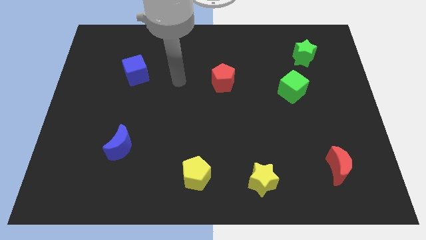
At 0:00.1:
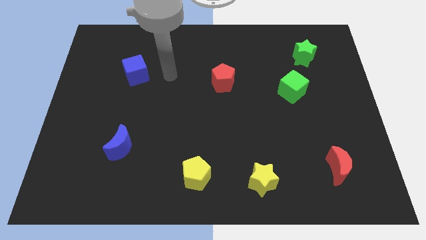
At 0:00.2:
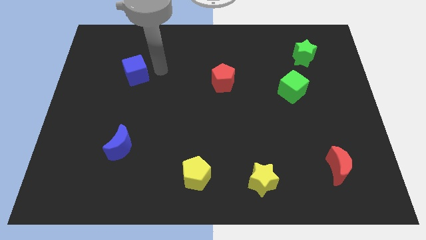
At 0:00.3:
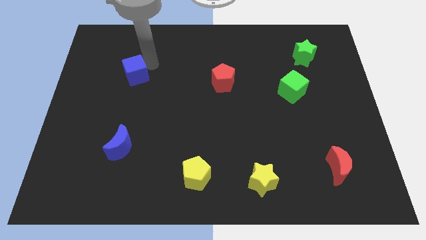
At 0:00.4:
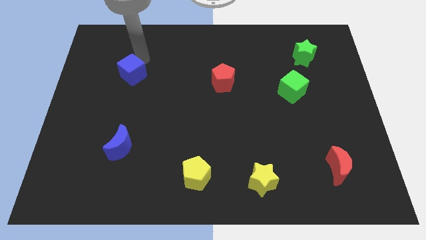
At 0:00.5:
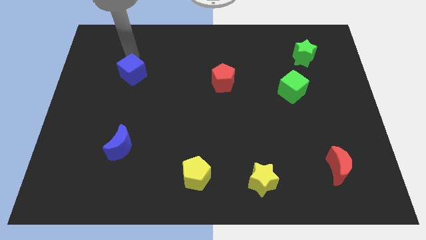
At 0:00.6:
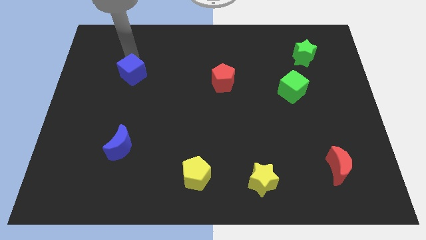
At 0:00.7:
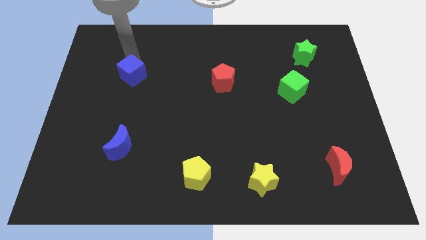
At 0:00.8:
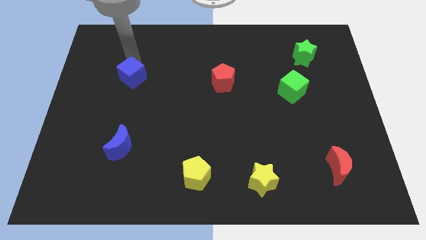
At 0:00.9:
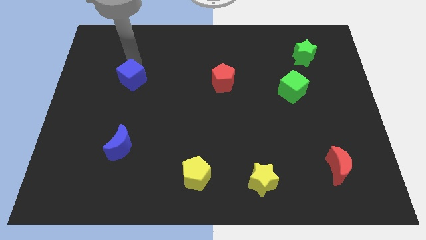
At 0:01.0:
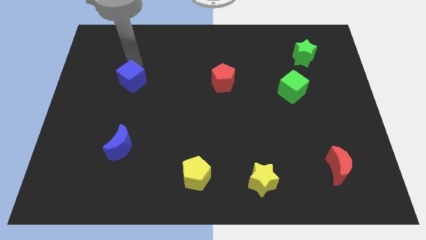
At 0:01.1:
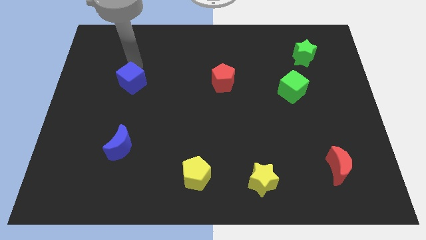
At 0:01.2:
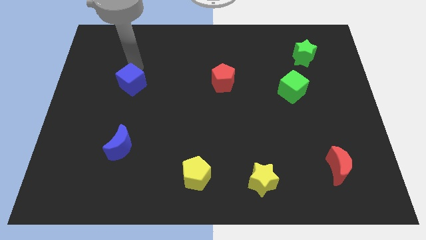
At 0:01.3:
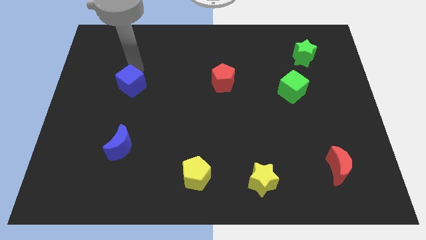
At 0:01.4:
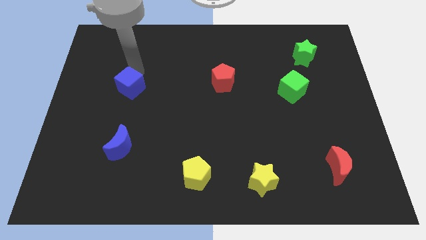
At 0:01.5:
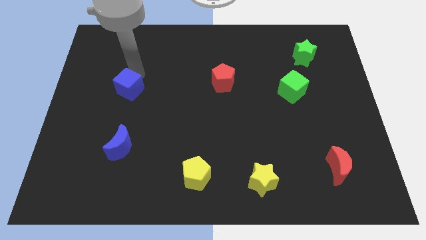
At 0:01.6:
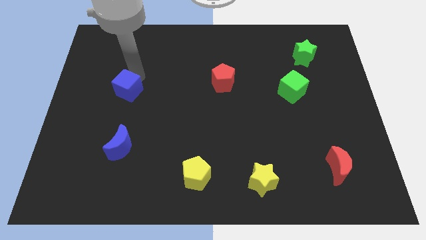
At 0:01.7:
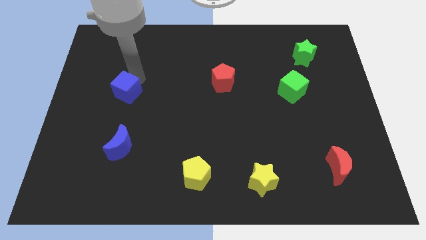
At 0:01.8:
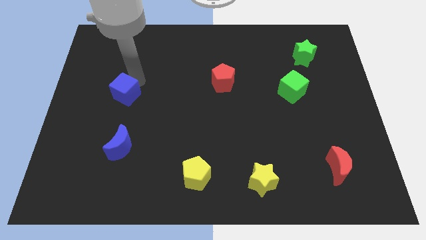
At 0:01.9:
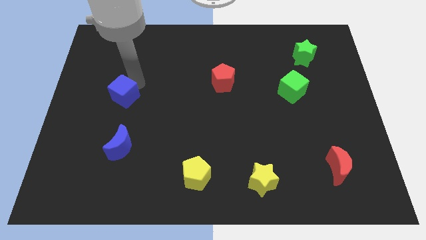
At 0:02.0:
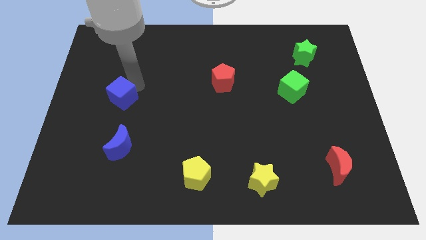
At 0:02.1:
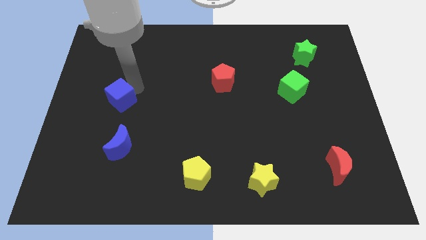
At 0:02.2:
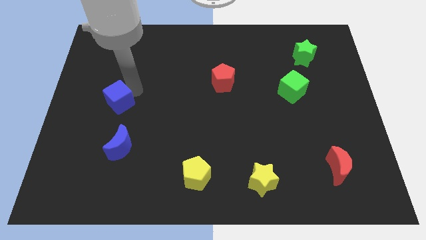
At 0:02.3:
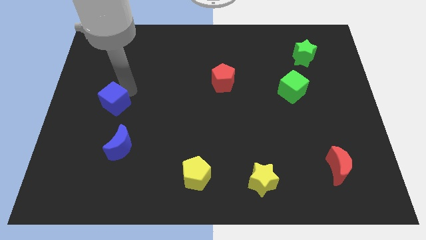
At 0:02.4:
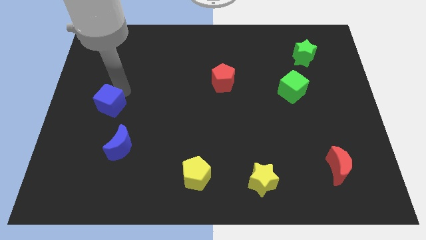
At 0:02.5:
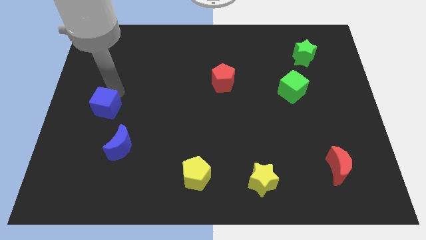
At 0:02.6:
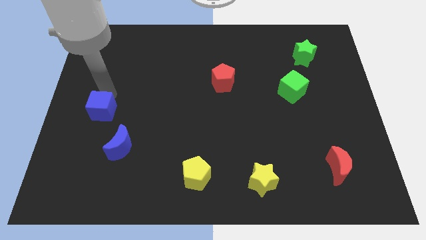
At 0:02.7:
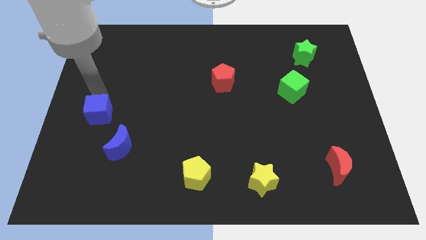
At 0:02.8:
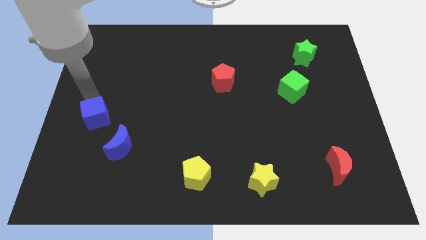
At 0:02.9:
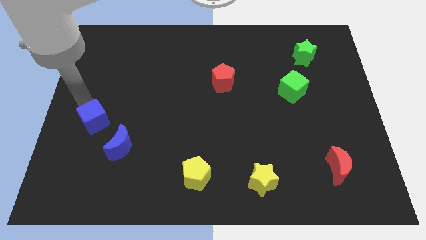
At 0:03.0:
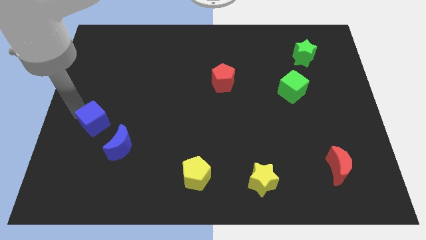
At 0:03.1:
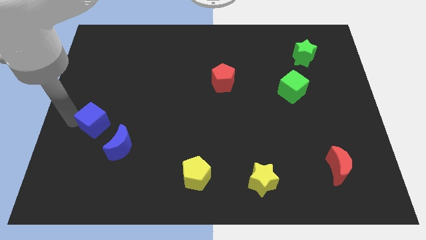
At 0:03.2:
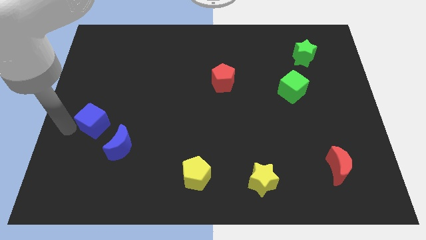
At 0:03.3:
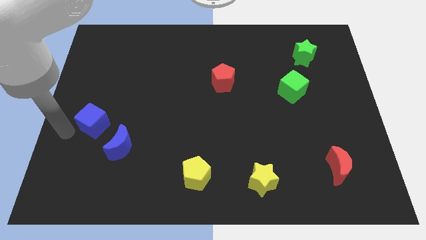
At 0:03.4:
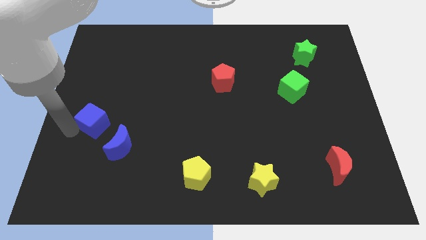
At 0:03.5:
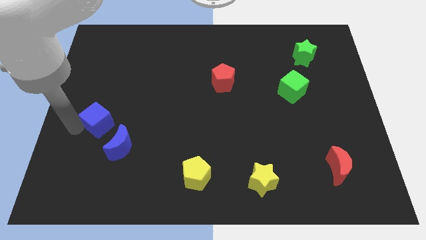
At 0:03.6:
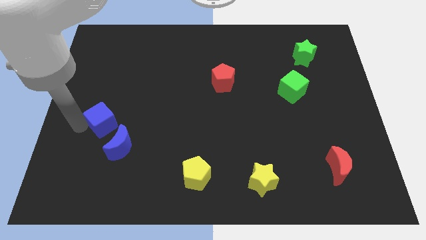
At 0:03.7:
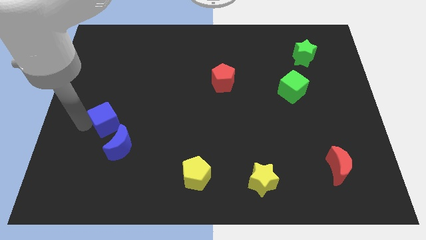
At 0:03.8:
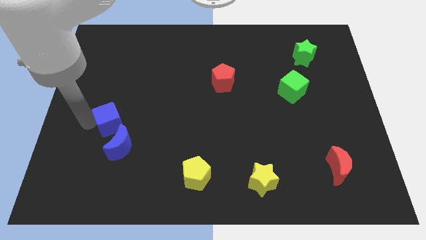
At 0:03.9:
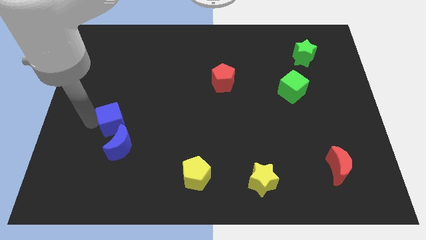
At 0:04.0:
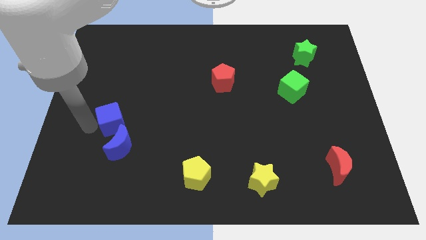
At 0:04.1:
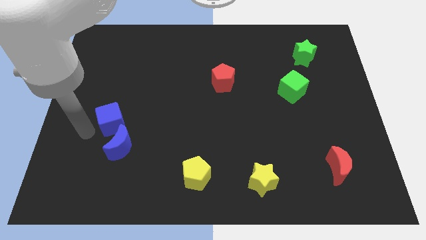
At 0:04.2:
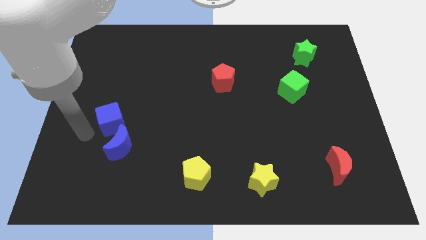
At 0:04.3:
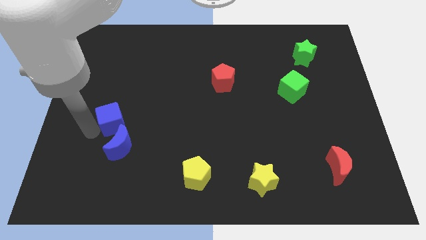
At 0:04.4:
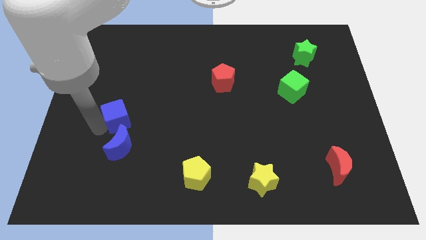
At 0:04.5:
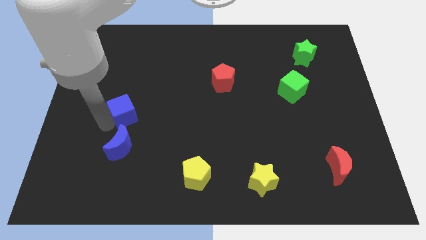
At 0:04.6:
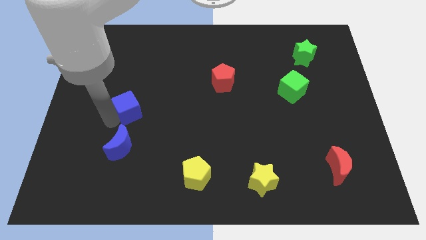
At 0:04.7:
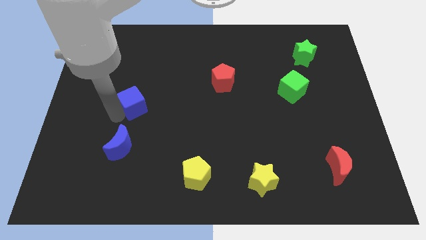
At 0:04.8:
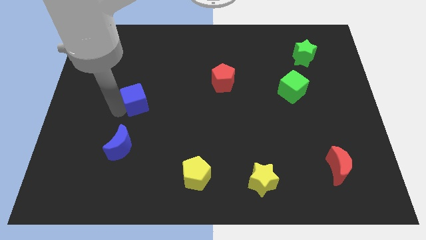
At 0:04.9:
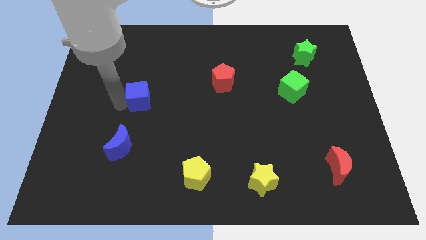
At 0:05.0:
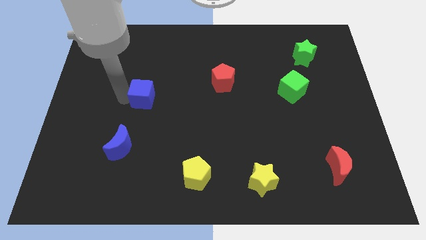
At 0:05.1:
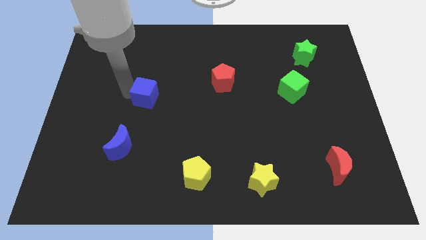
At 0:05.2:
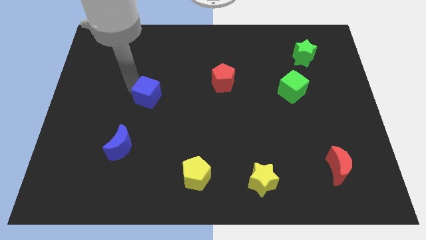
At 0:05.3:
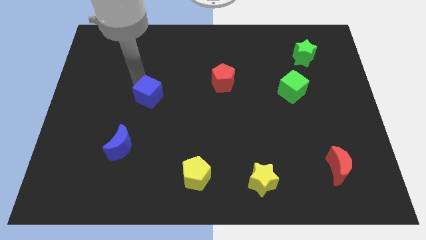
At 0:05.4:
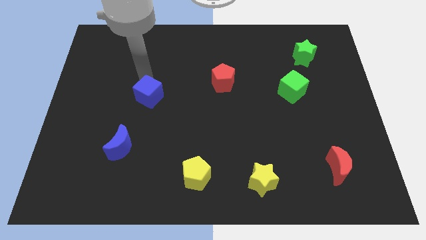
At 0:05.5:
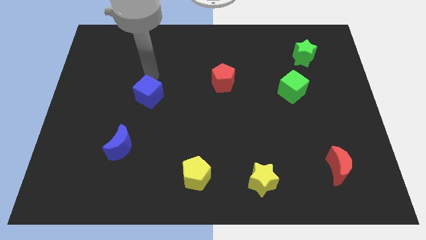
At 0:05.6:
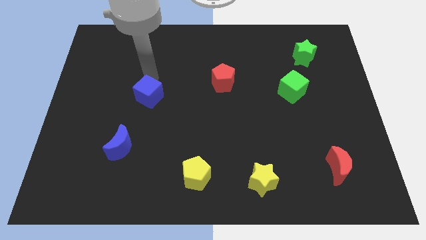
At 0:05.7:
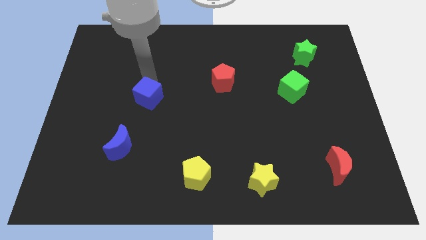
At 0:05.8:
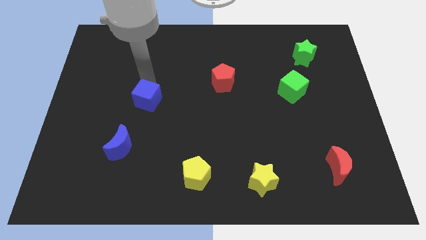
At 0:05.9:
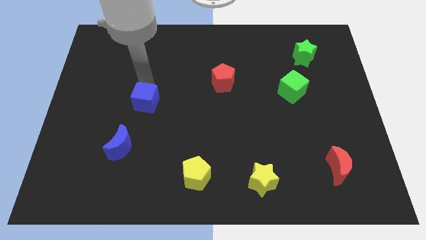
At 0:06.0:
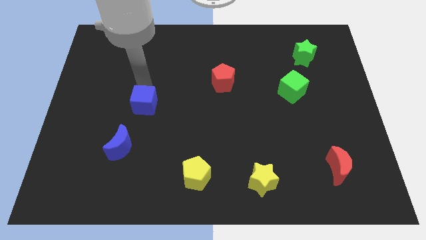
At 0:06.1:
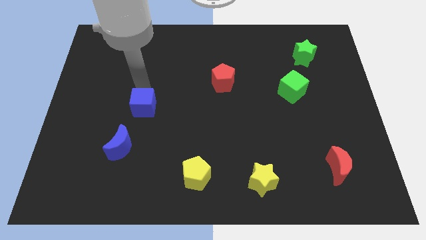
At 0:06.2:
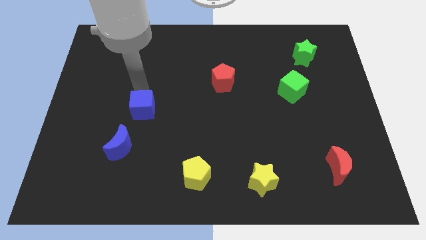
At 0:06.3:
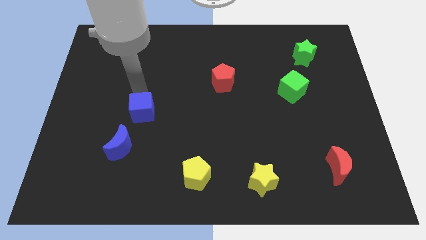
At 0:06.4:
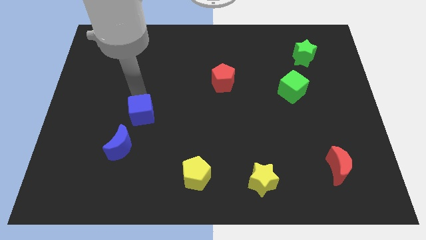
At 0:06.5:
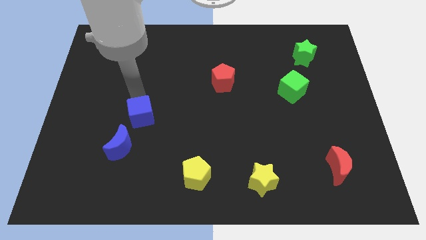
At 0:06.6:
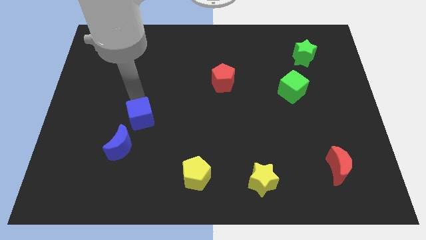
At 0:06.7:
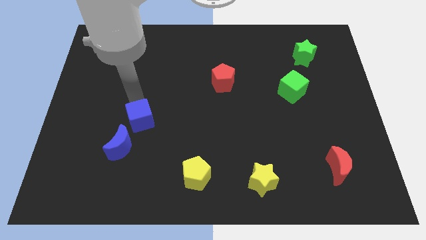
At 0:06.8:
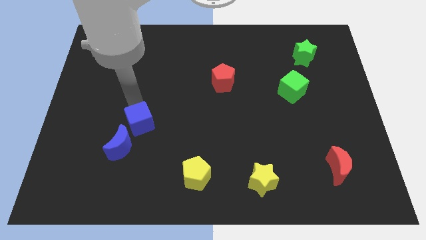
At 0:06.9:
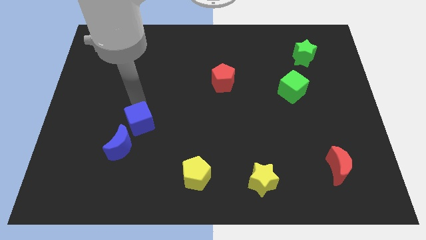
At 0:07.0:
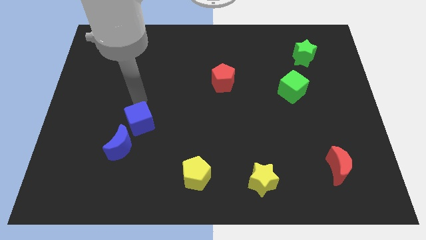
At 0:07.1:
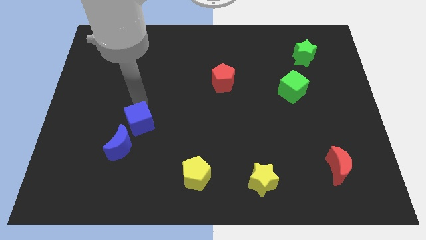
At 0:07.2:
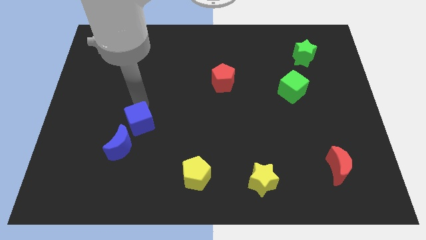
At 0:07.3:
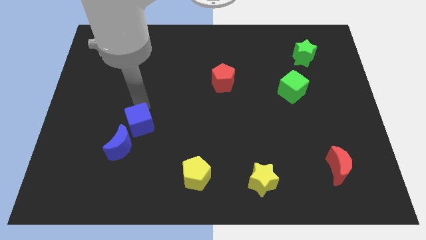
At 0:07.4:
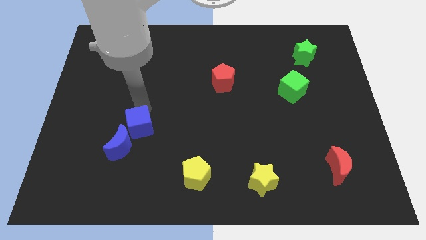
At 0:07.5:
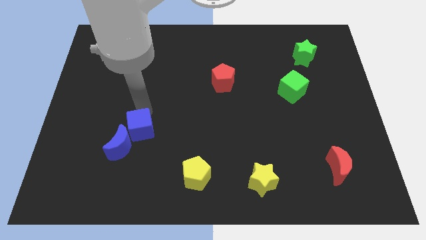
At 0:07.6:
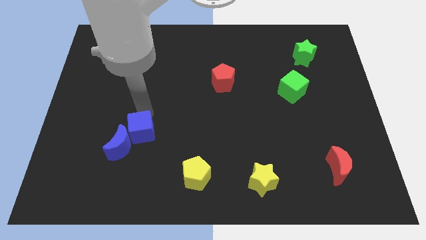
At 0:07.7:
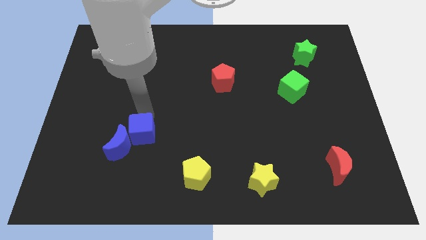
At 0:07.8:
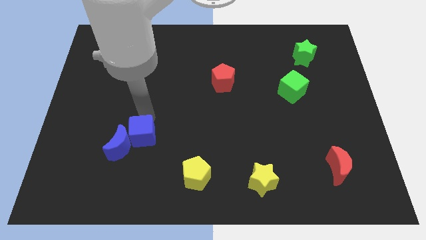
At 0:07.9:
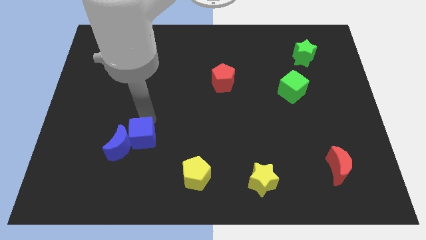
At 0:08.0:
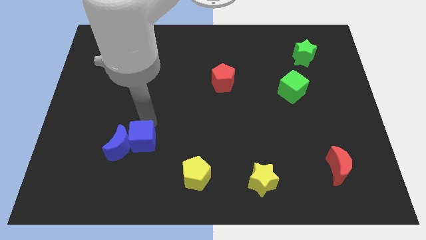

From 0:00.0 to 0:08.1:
put the blue cube to the bottom right side of the blue moon
